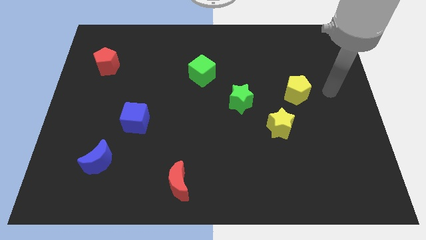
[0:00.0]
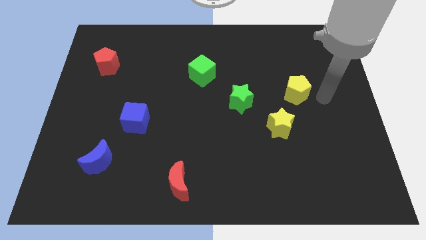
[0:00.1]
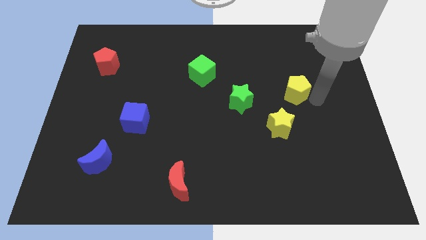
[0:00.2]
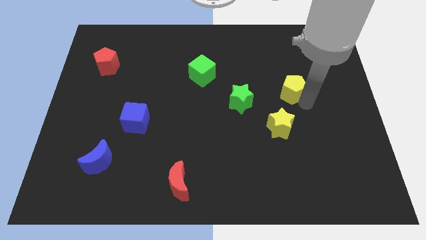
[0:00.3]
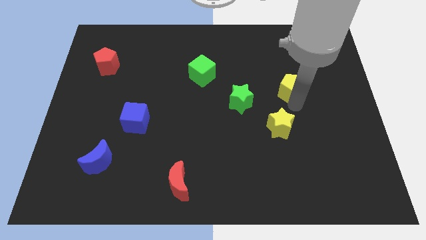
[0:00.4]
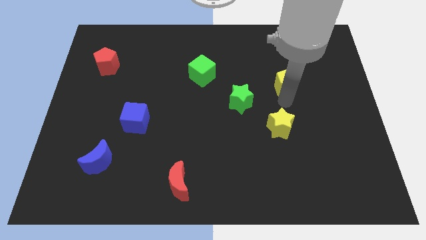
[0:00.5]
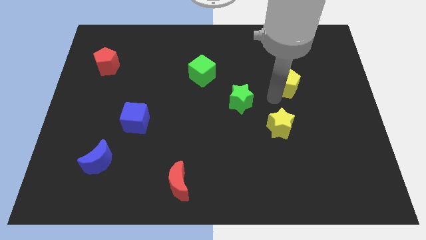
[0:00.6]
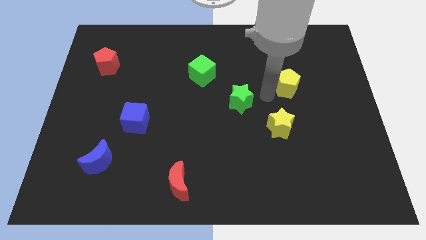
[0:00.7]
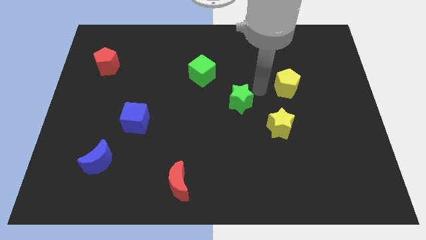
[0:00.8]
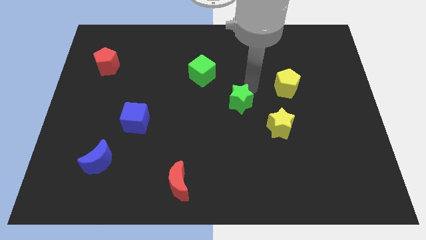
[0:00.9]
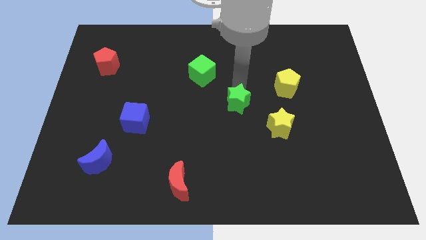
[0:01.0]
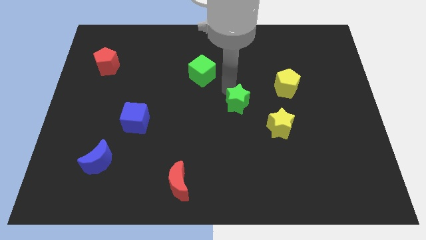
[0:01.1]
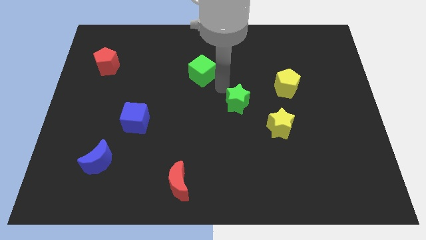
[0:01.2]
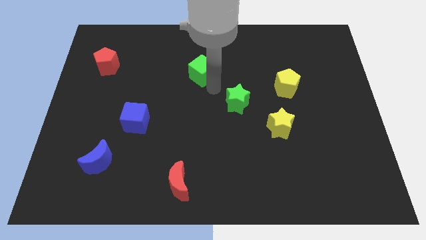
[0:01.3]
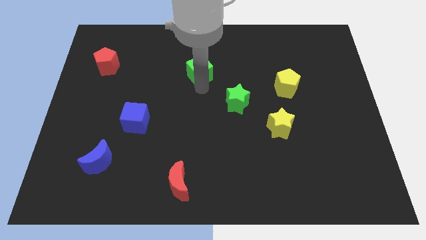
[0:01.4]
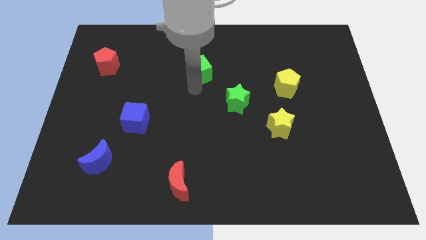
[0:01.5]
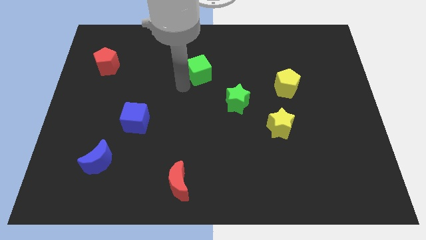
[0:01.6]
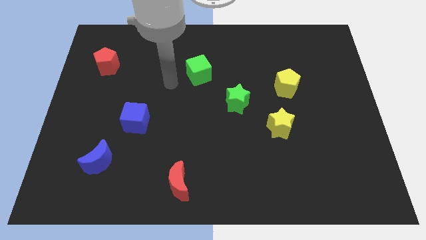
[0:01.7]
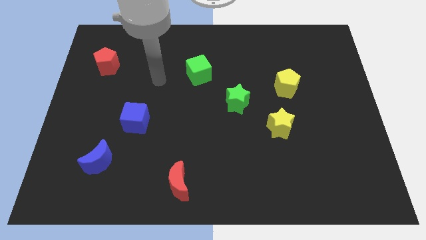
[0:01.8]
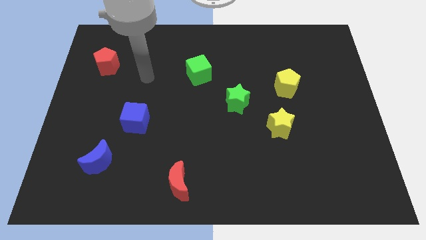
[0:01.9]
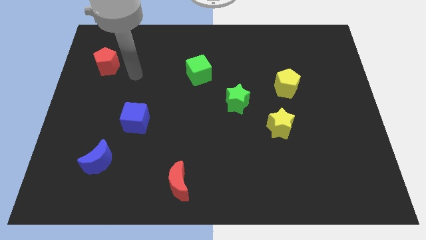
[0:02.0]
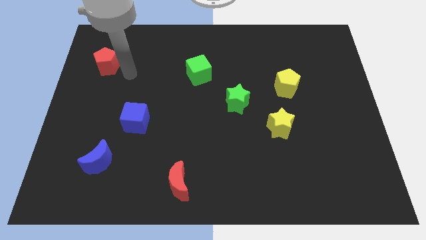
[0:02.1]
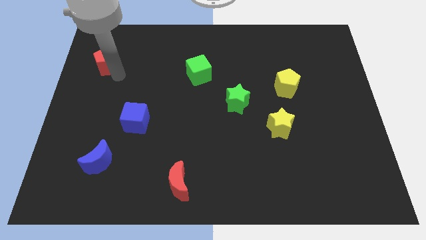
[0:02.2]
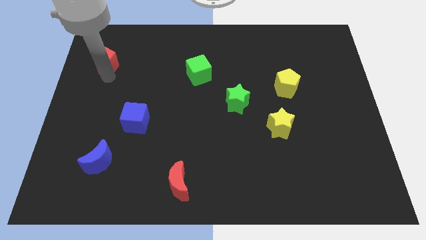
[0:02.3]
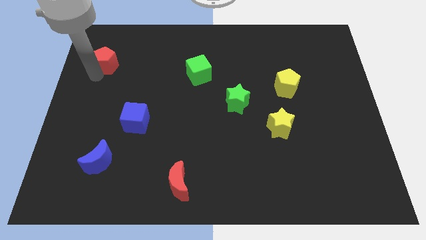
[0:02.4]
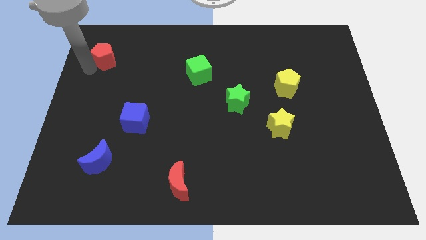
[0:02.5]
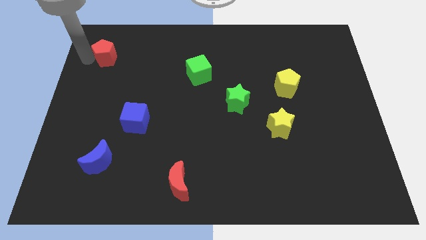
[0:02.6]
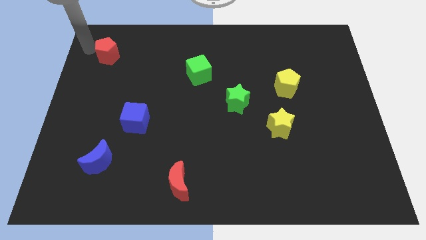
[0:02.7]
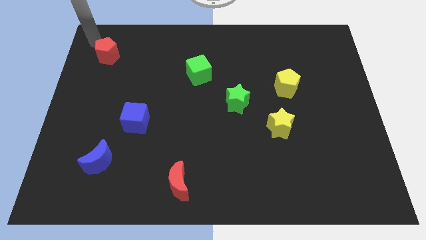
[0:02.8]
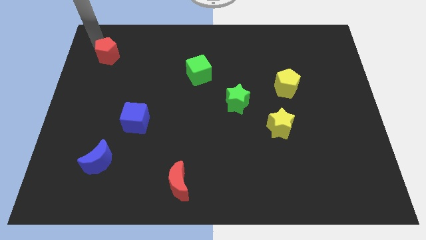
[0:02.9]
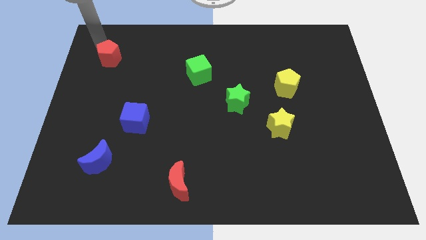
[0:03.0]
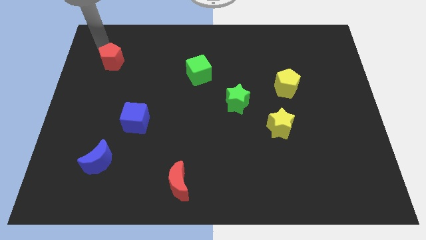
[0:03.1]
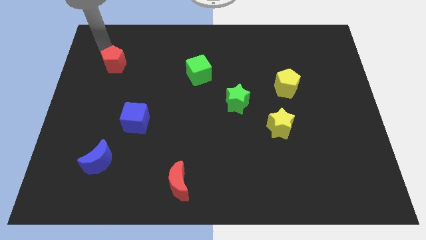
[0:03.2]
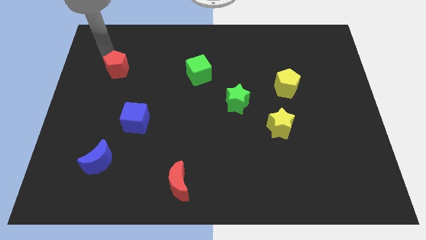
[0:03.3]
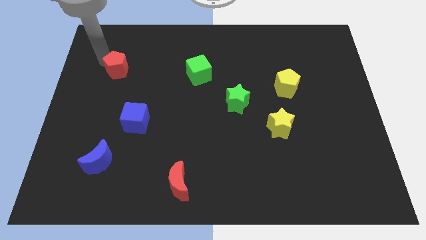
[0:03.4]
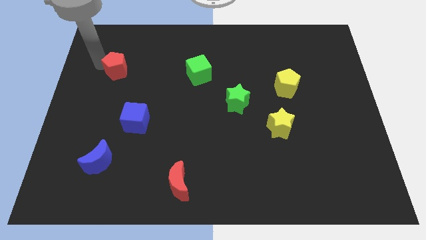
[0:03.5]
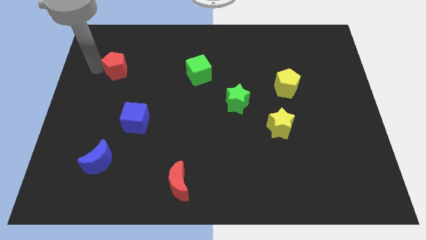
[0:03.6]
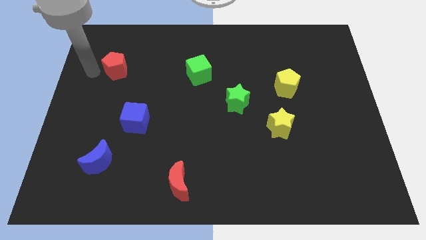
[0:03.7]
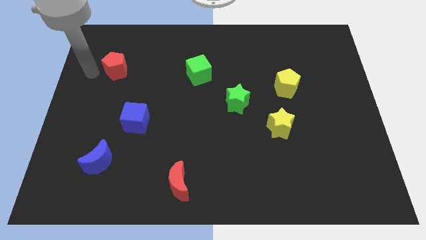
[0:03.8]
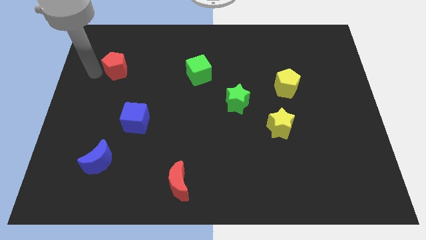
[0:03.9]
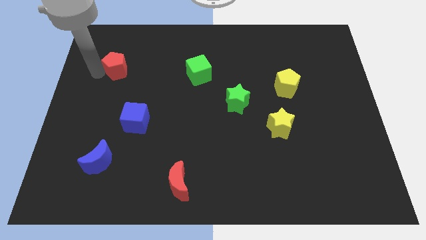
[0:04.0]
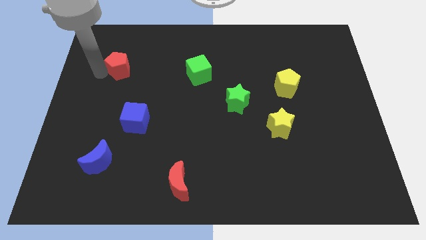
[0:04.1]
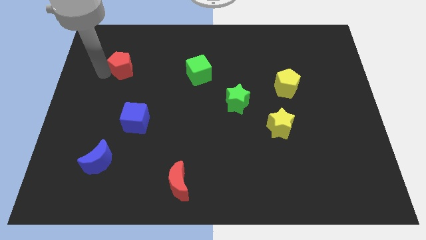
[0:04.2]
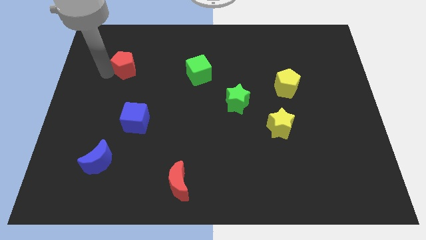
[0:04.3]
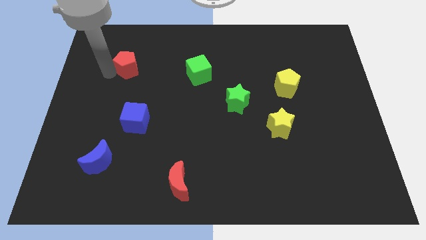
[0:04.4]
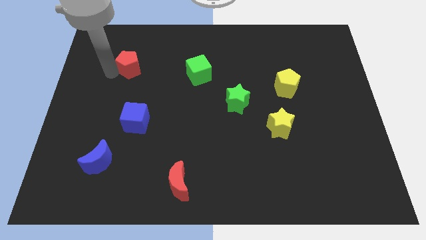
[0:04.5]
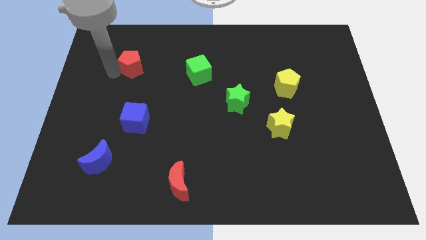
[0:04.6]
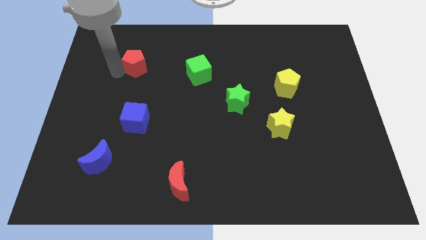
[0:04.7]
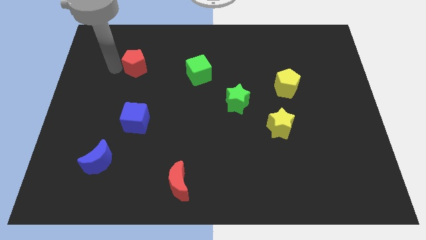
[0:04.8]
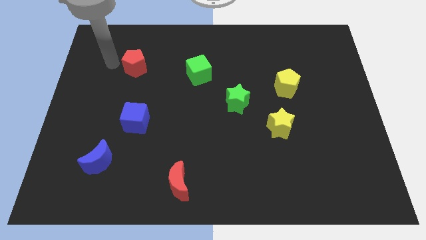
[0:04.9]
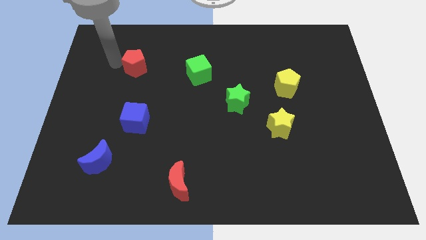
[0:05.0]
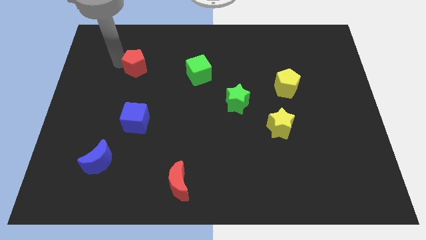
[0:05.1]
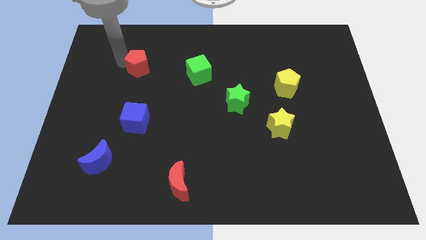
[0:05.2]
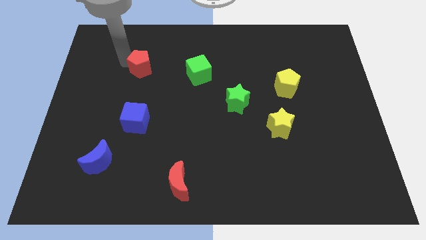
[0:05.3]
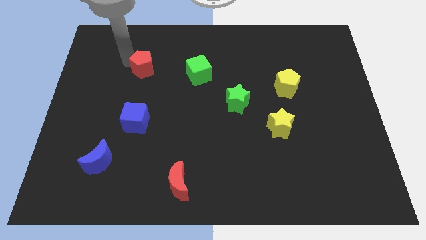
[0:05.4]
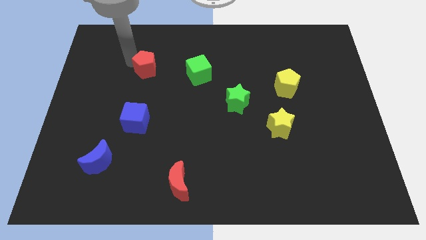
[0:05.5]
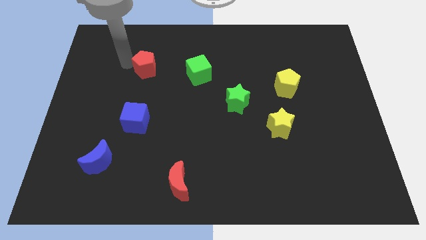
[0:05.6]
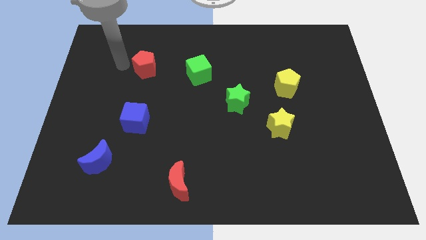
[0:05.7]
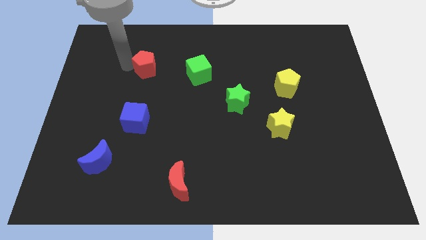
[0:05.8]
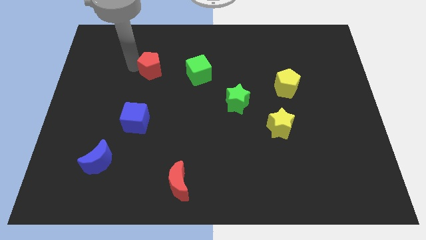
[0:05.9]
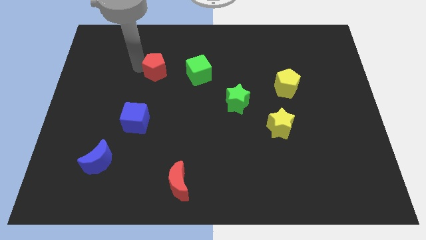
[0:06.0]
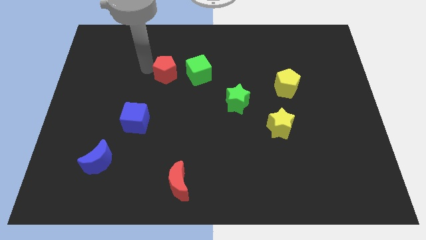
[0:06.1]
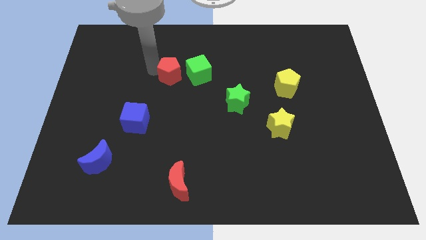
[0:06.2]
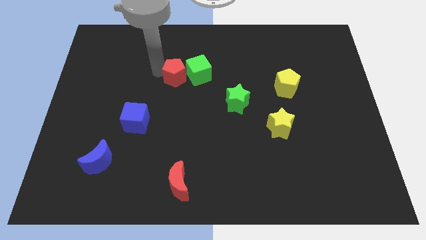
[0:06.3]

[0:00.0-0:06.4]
push the red pentagon next to the green cube
